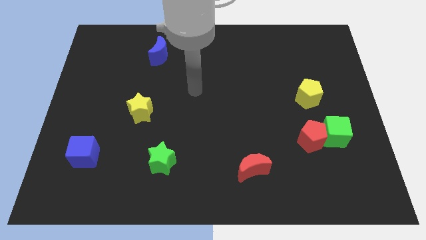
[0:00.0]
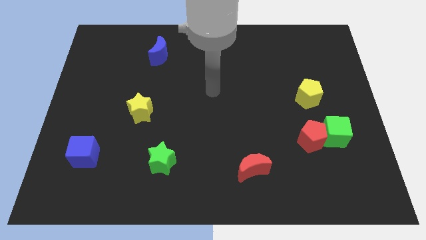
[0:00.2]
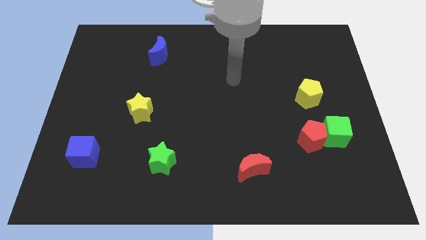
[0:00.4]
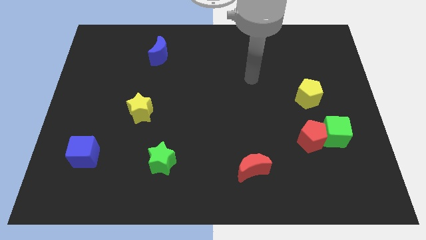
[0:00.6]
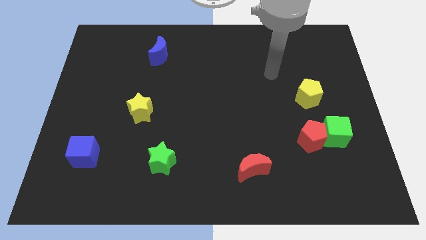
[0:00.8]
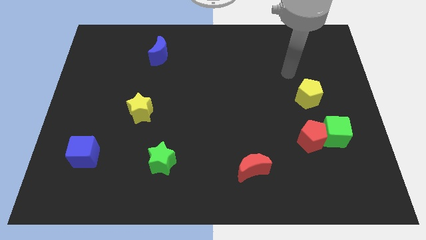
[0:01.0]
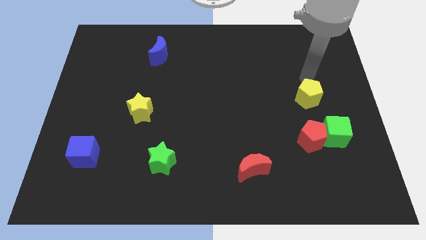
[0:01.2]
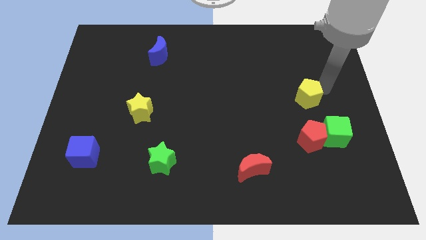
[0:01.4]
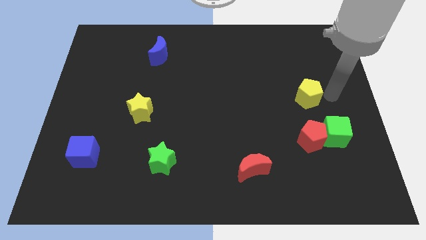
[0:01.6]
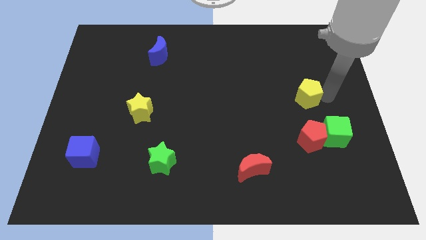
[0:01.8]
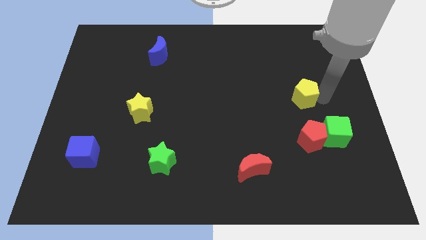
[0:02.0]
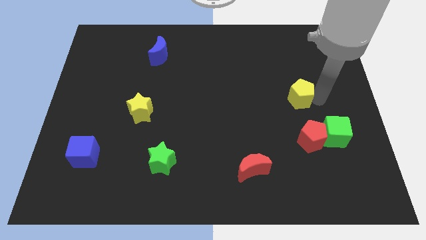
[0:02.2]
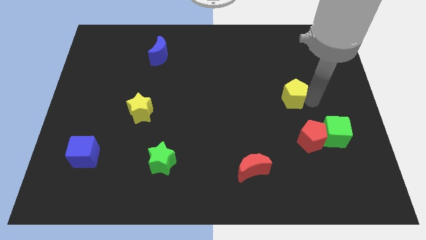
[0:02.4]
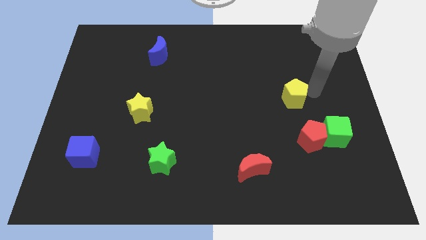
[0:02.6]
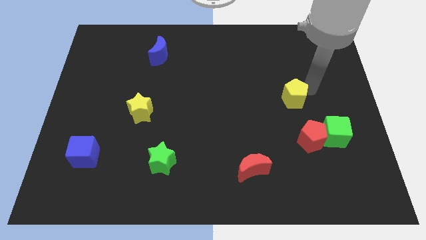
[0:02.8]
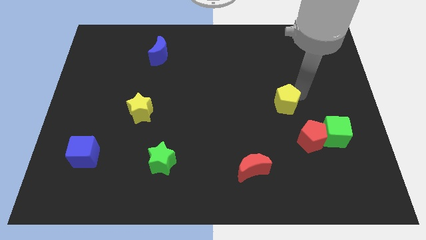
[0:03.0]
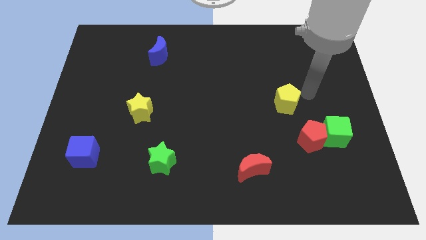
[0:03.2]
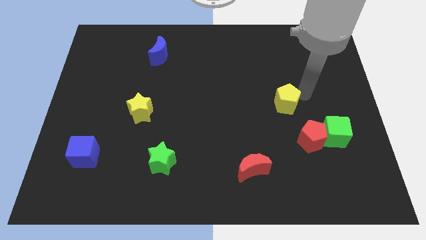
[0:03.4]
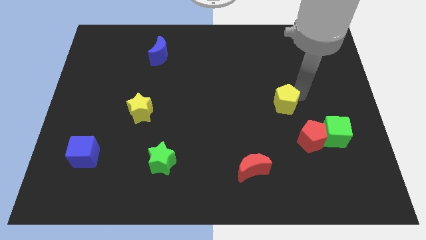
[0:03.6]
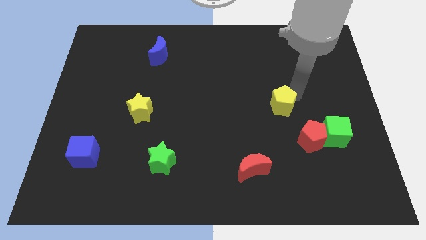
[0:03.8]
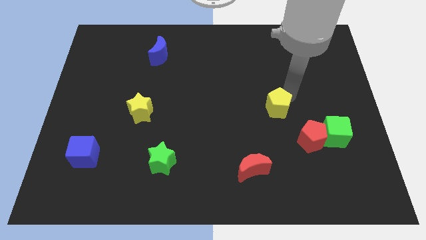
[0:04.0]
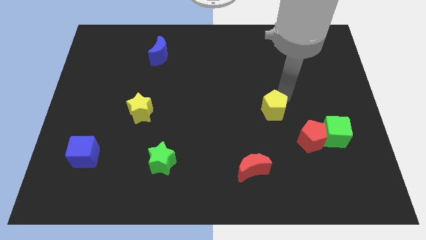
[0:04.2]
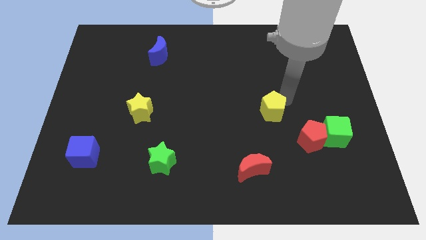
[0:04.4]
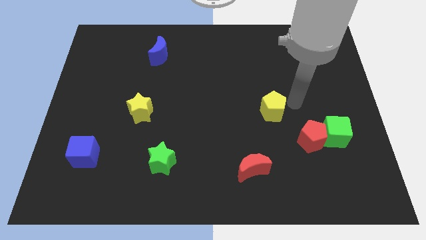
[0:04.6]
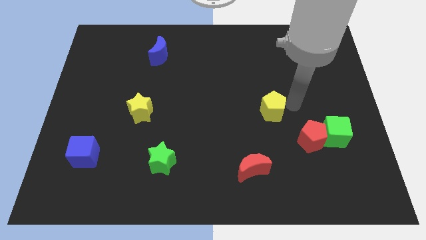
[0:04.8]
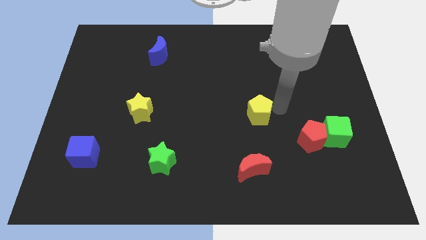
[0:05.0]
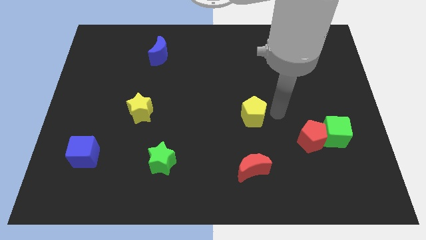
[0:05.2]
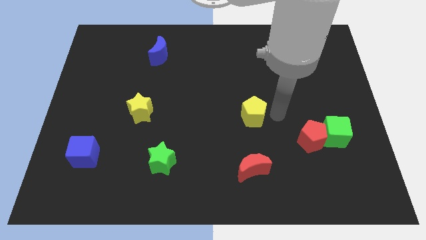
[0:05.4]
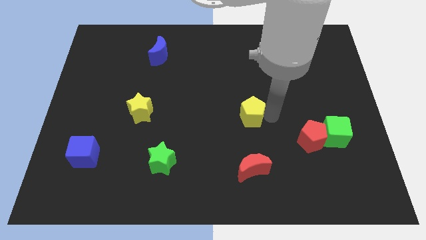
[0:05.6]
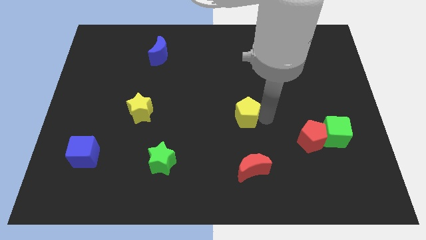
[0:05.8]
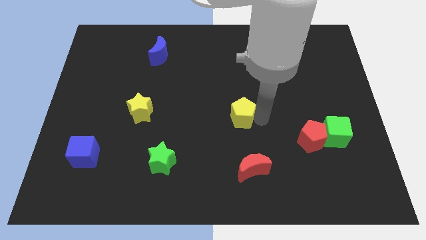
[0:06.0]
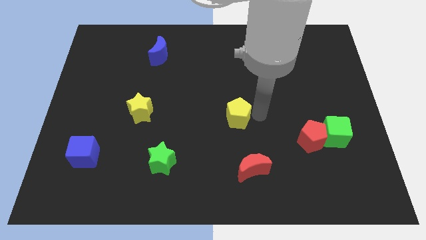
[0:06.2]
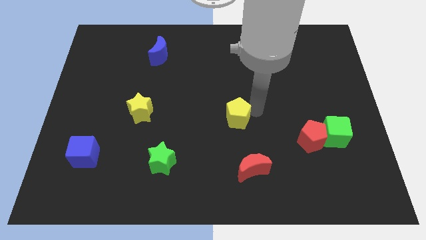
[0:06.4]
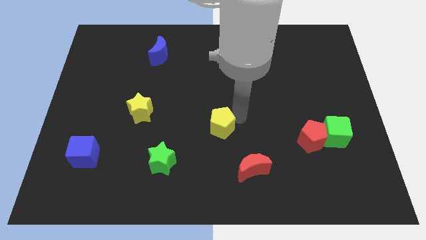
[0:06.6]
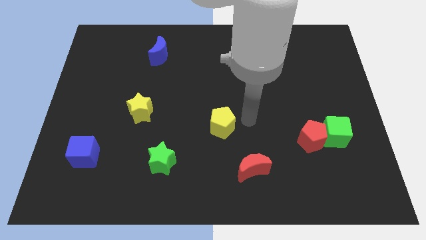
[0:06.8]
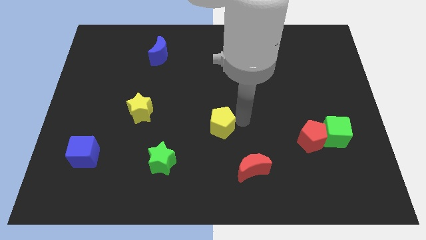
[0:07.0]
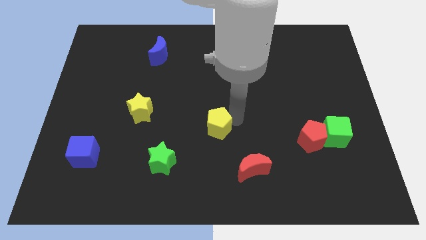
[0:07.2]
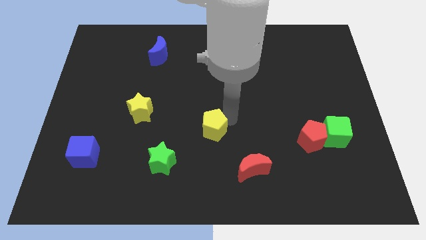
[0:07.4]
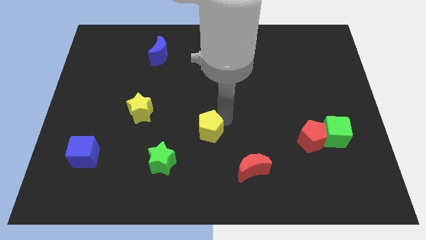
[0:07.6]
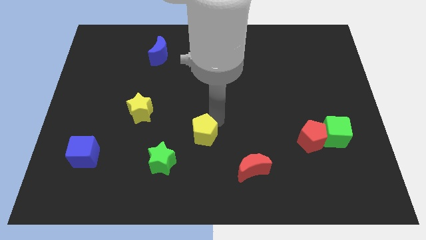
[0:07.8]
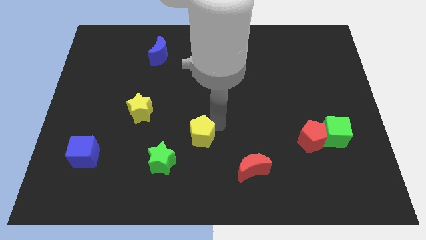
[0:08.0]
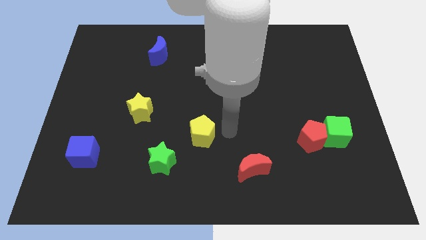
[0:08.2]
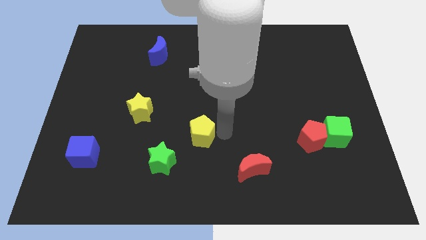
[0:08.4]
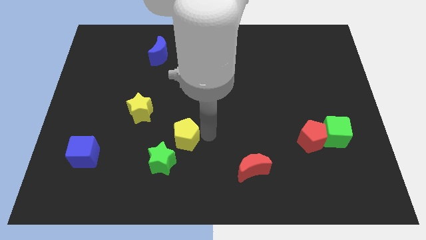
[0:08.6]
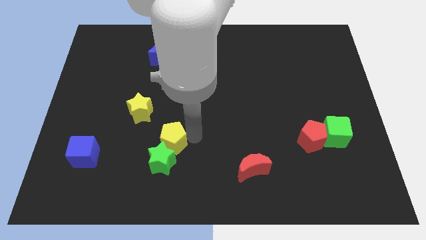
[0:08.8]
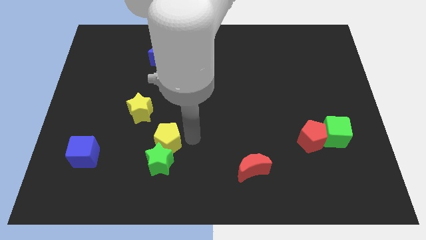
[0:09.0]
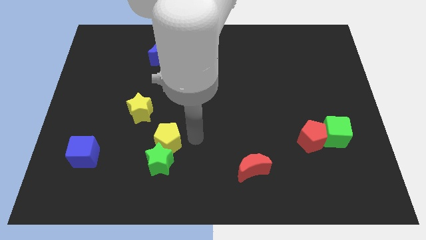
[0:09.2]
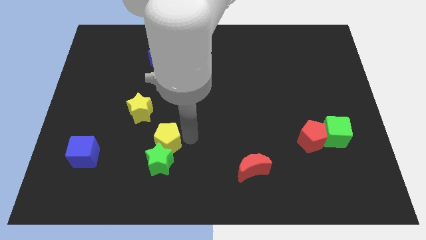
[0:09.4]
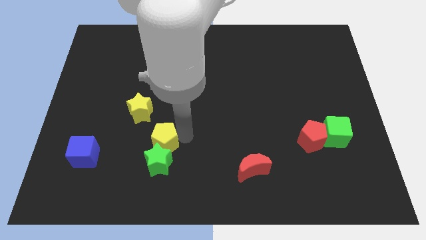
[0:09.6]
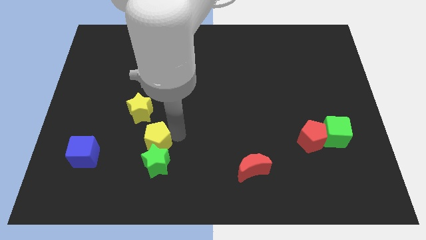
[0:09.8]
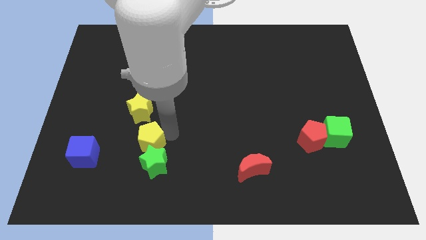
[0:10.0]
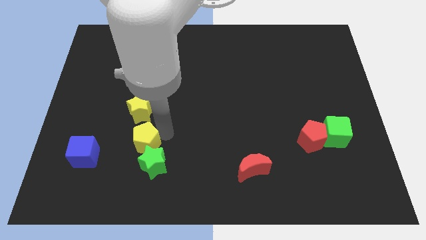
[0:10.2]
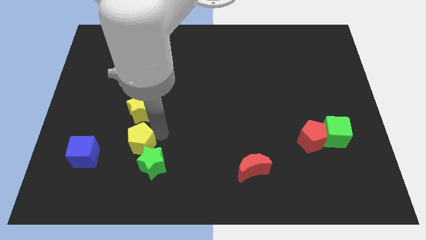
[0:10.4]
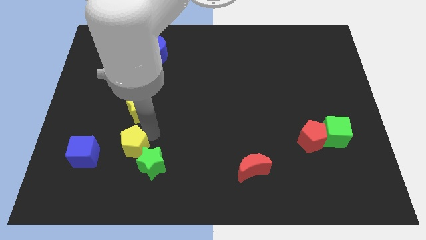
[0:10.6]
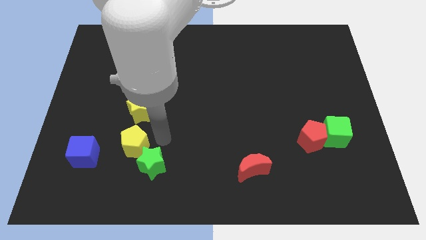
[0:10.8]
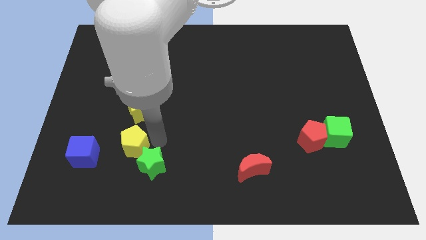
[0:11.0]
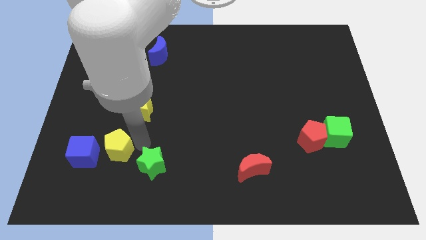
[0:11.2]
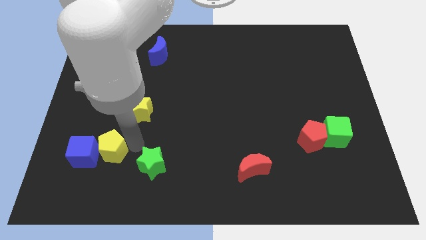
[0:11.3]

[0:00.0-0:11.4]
slide the yellow pentagon next to the blue cube

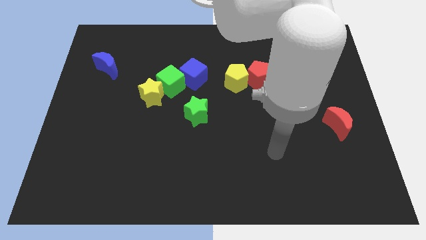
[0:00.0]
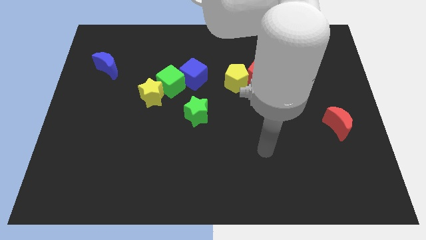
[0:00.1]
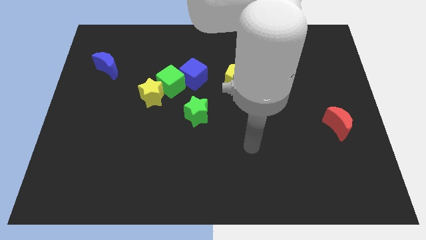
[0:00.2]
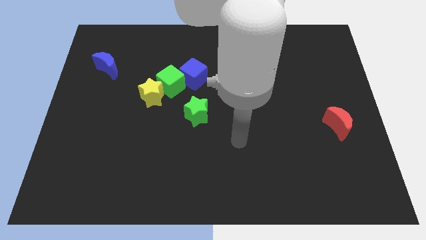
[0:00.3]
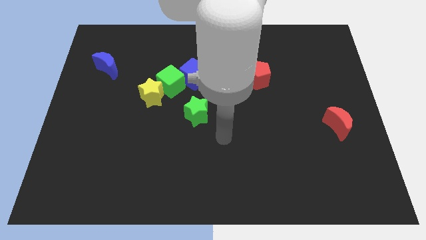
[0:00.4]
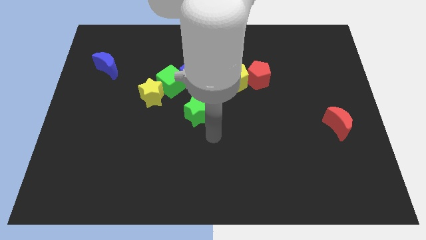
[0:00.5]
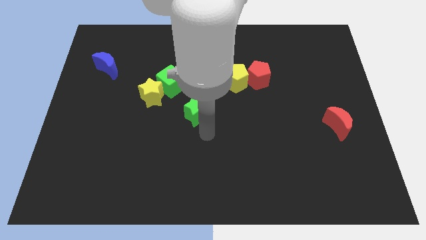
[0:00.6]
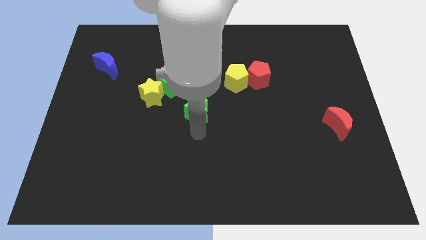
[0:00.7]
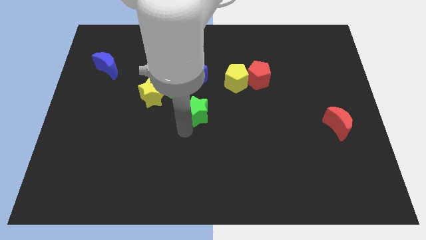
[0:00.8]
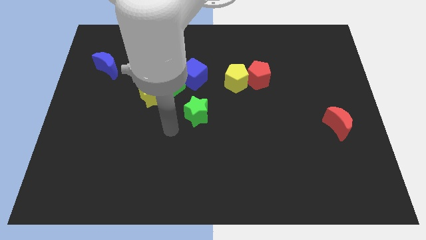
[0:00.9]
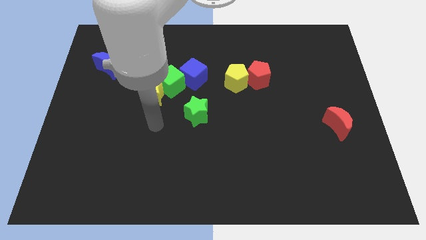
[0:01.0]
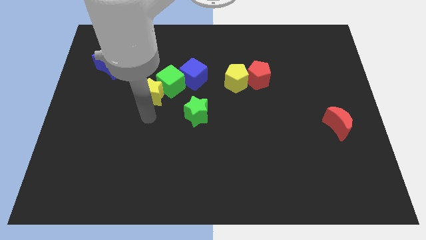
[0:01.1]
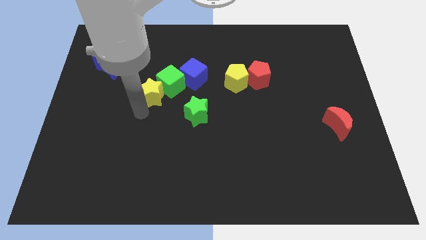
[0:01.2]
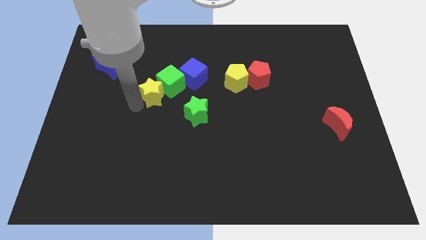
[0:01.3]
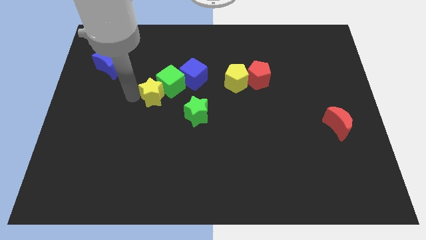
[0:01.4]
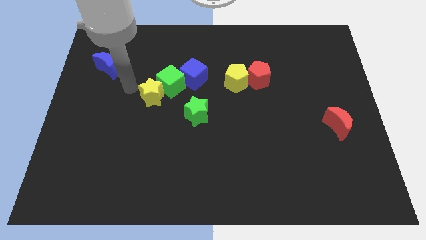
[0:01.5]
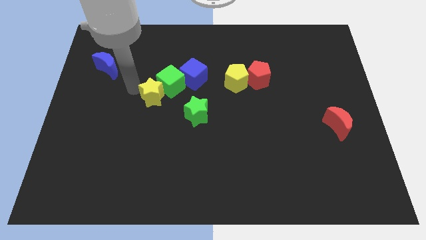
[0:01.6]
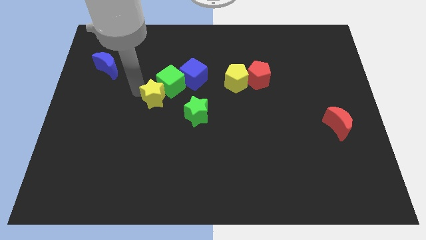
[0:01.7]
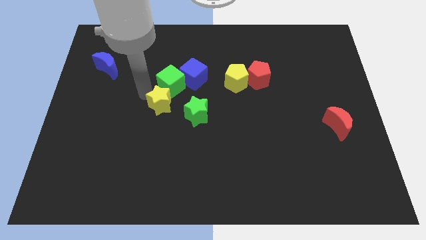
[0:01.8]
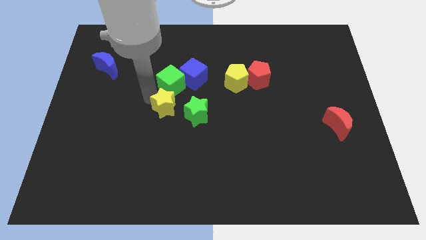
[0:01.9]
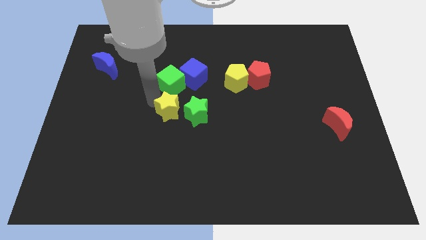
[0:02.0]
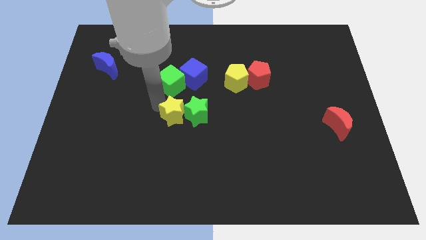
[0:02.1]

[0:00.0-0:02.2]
put the yellow star close to the green star
